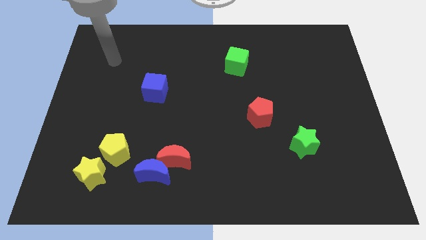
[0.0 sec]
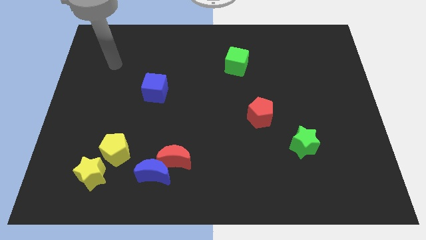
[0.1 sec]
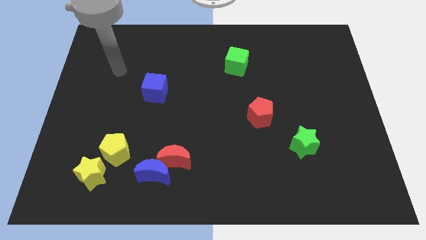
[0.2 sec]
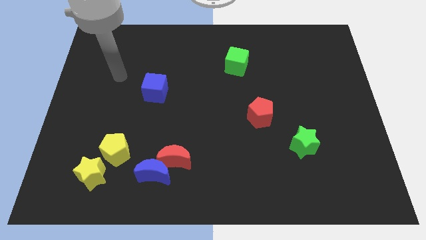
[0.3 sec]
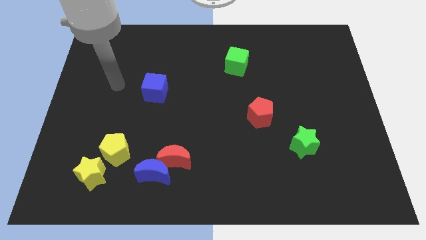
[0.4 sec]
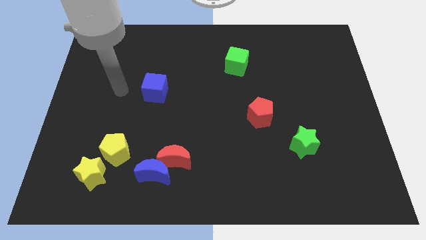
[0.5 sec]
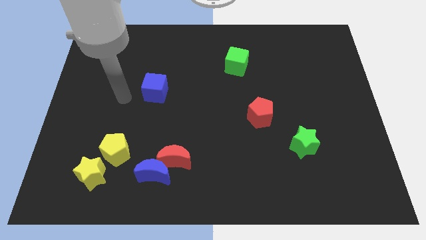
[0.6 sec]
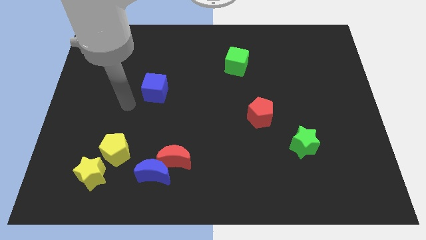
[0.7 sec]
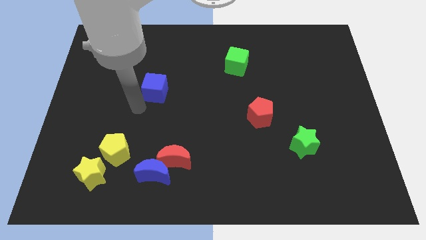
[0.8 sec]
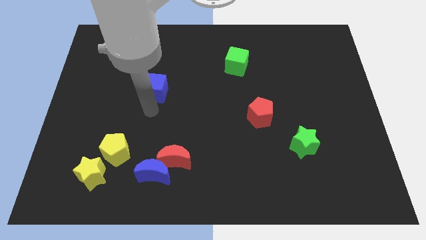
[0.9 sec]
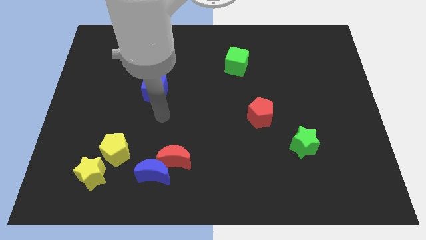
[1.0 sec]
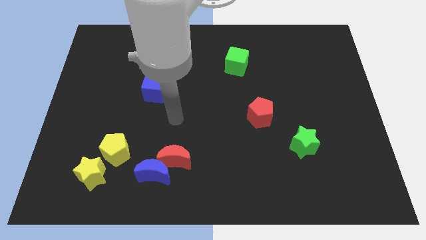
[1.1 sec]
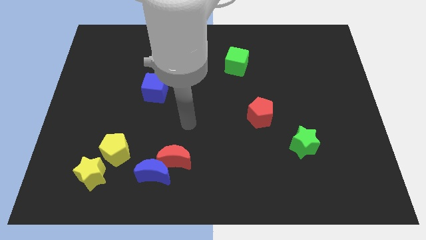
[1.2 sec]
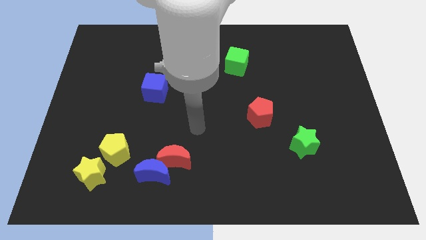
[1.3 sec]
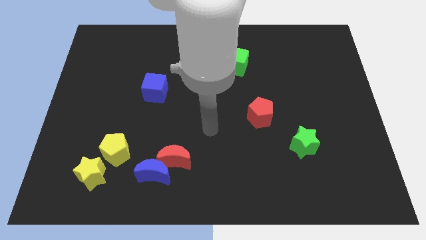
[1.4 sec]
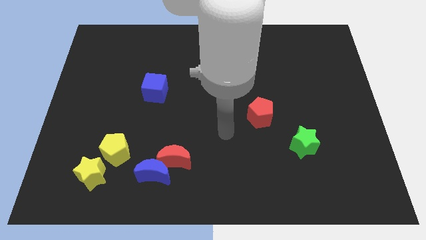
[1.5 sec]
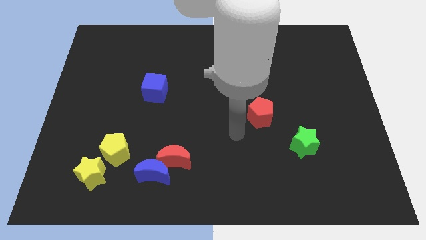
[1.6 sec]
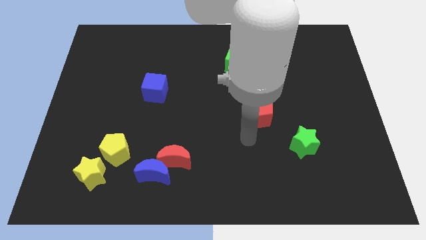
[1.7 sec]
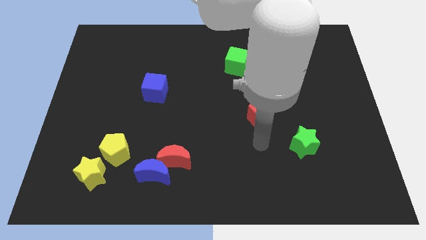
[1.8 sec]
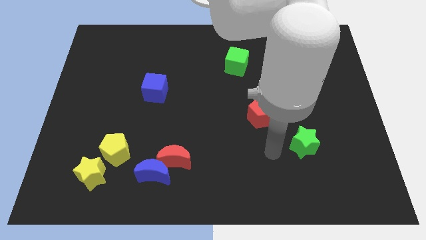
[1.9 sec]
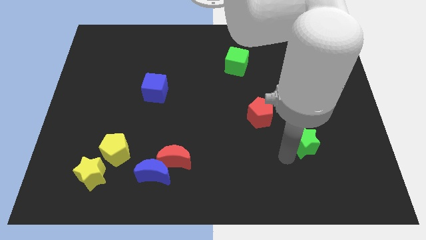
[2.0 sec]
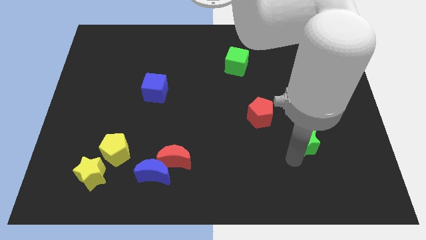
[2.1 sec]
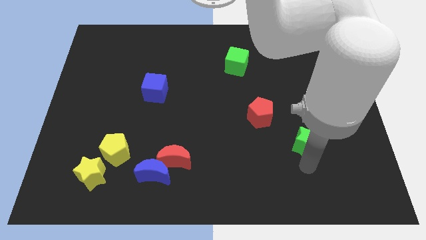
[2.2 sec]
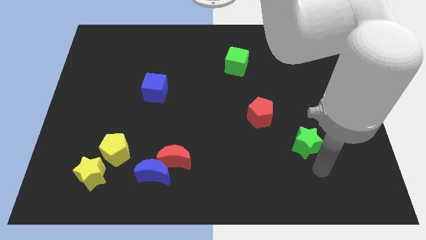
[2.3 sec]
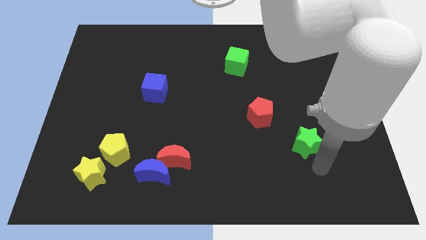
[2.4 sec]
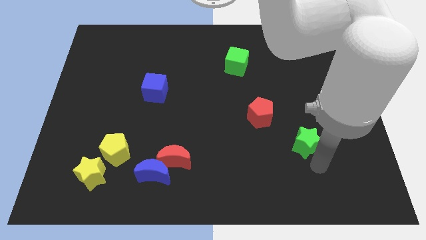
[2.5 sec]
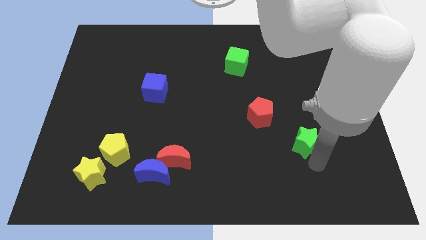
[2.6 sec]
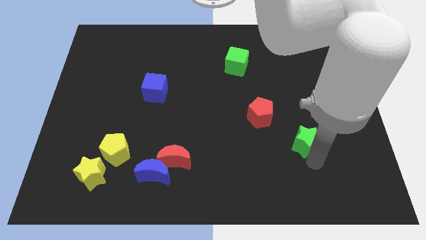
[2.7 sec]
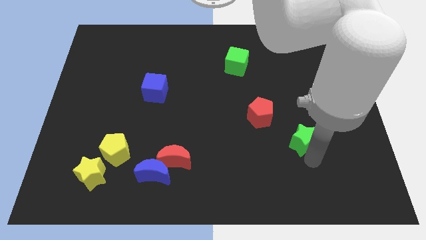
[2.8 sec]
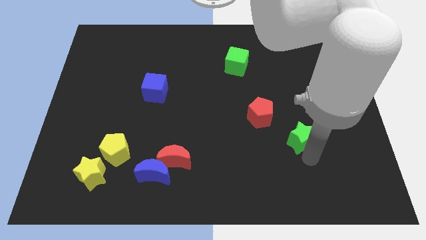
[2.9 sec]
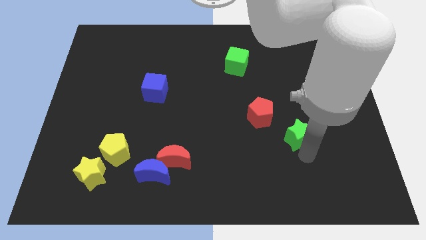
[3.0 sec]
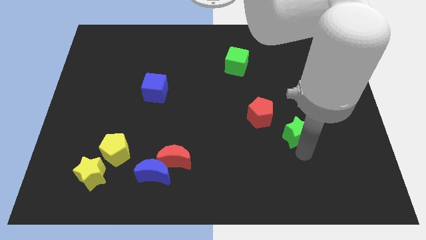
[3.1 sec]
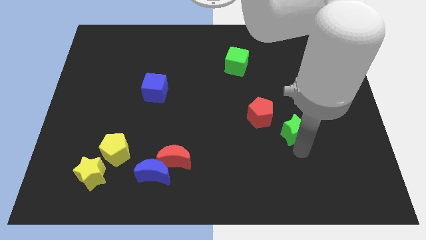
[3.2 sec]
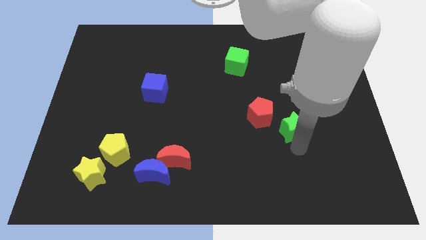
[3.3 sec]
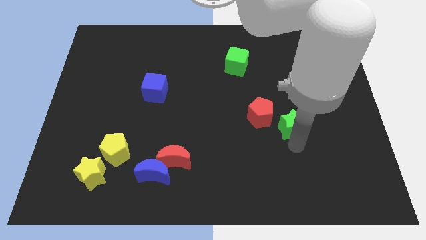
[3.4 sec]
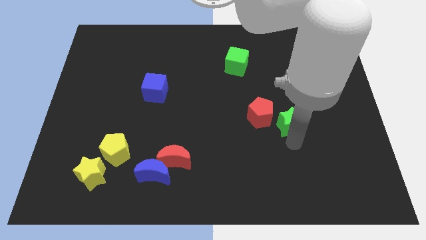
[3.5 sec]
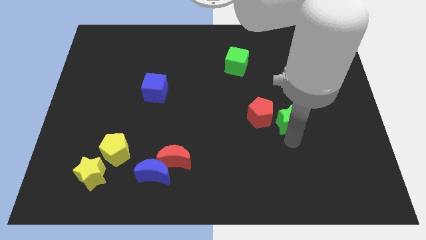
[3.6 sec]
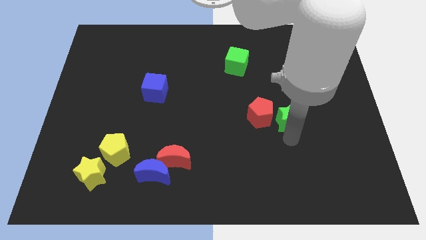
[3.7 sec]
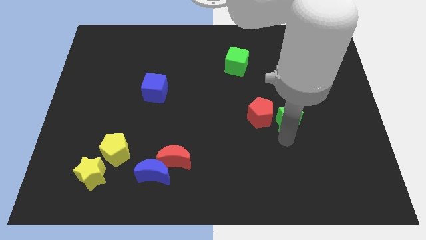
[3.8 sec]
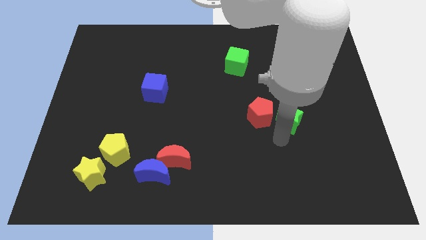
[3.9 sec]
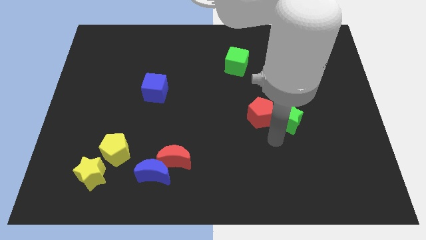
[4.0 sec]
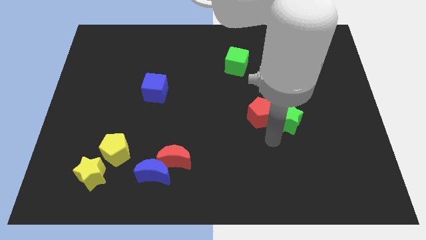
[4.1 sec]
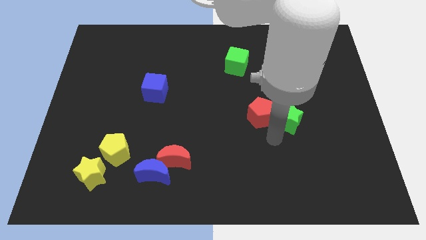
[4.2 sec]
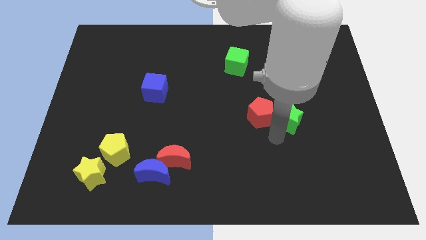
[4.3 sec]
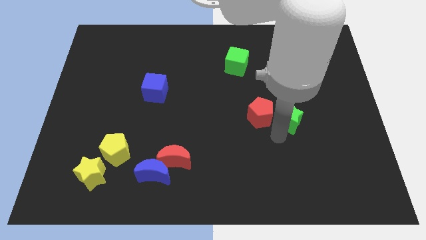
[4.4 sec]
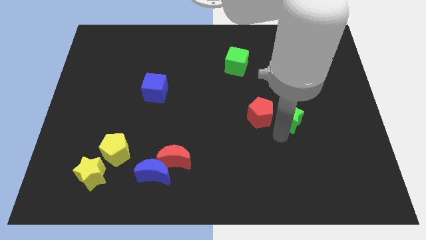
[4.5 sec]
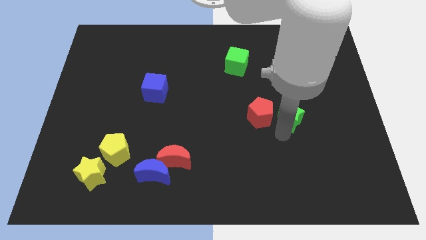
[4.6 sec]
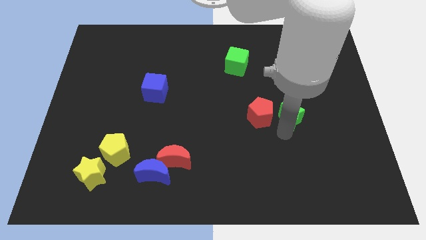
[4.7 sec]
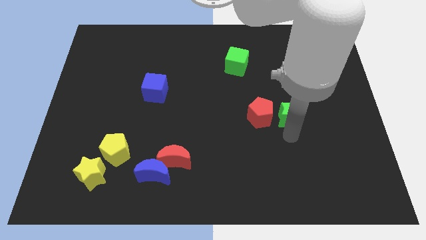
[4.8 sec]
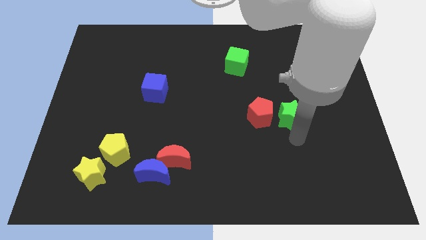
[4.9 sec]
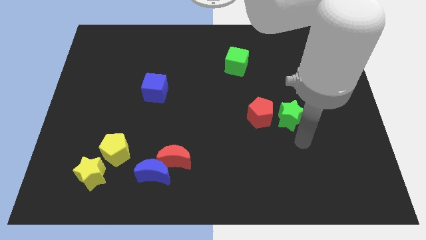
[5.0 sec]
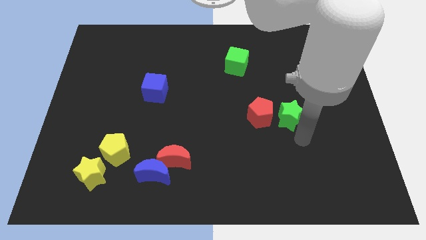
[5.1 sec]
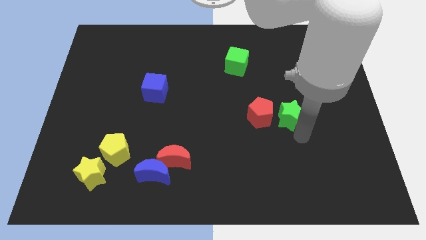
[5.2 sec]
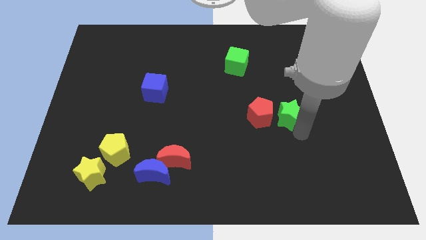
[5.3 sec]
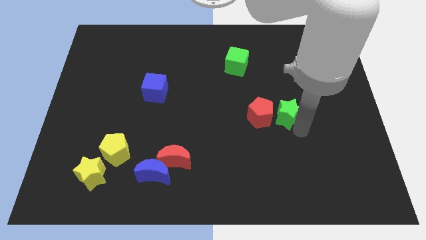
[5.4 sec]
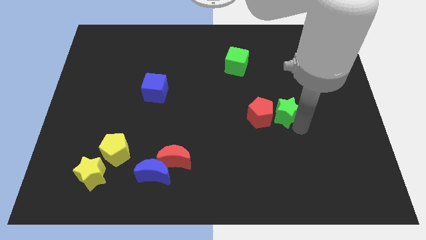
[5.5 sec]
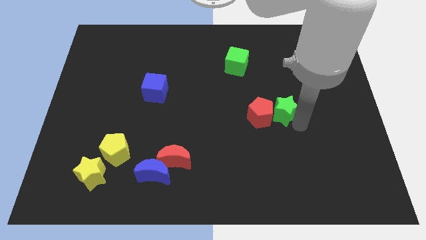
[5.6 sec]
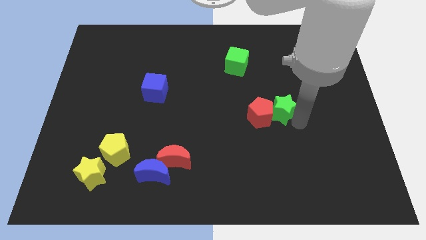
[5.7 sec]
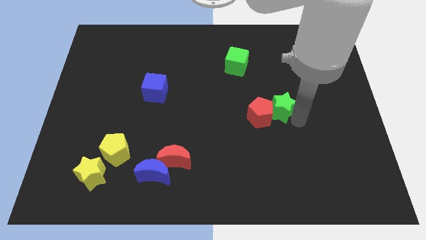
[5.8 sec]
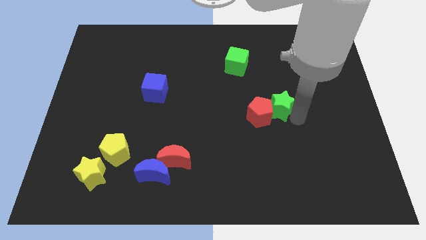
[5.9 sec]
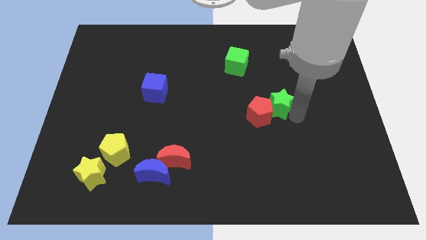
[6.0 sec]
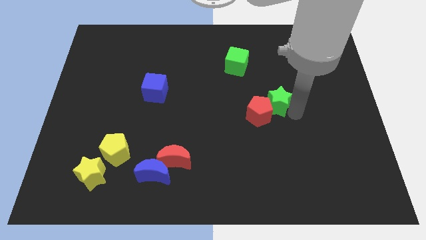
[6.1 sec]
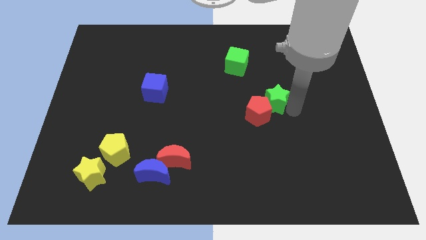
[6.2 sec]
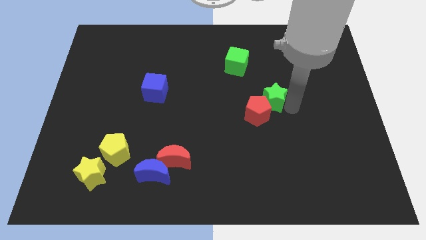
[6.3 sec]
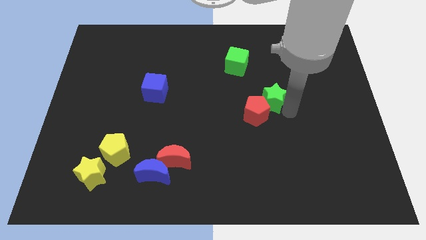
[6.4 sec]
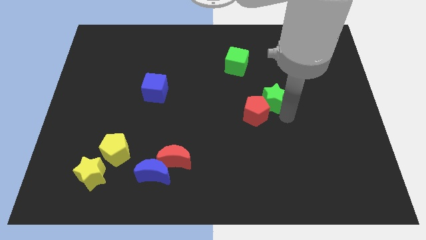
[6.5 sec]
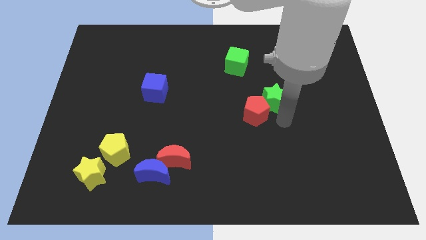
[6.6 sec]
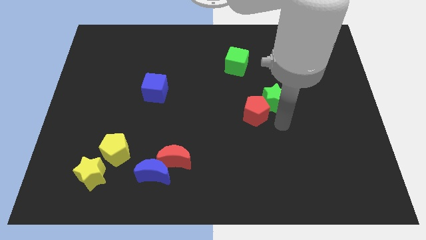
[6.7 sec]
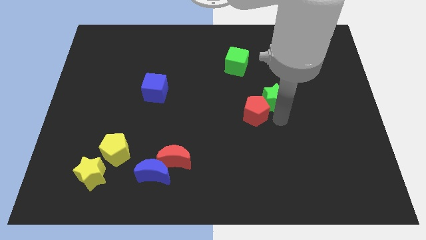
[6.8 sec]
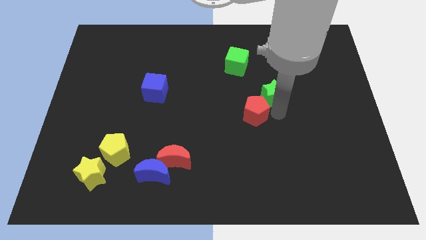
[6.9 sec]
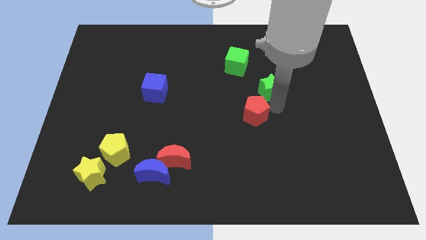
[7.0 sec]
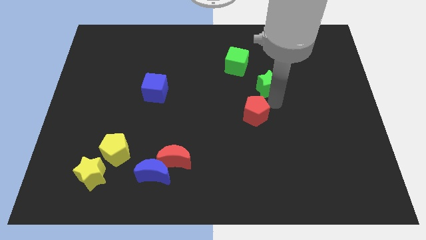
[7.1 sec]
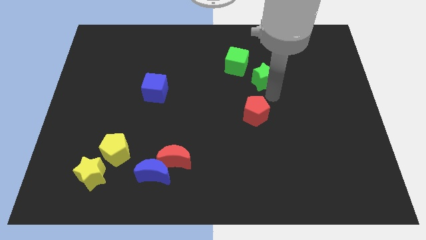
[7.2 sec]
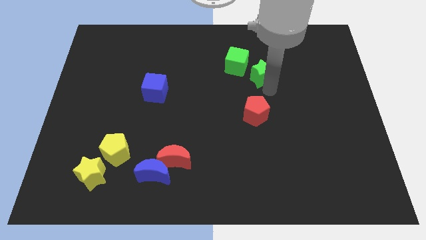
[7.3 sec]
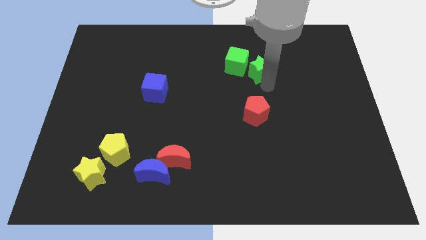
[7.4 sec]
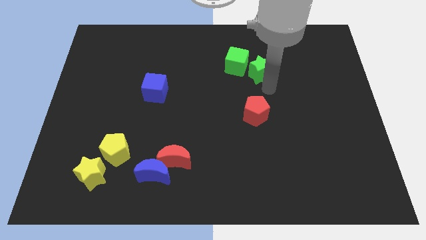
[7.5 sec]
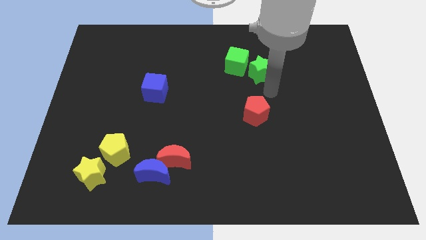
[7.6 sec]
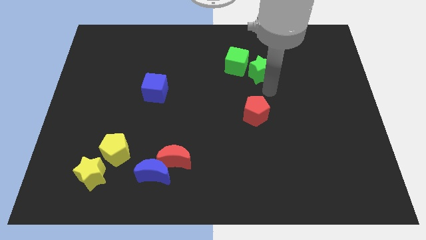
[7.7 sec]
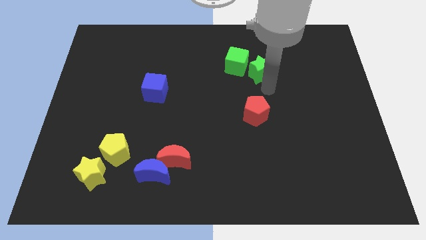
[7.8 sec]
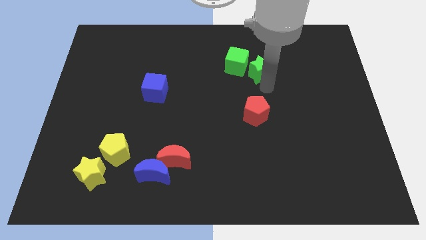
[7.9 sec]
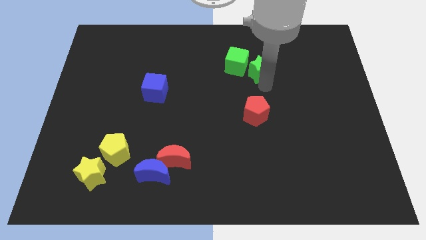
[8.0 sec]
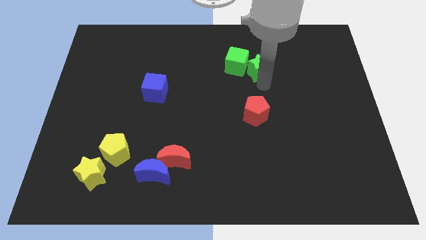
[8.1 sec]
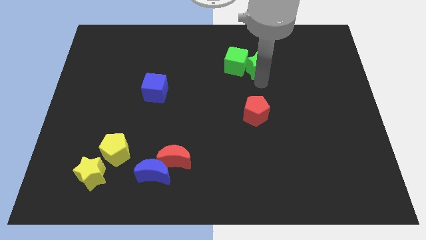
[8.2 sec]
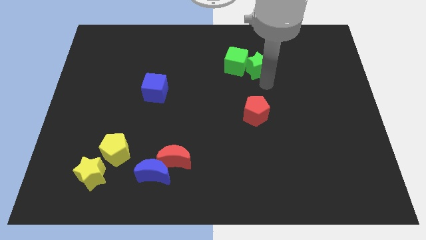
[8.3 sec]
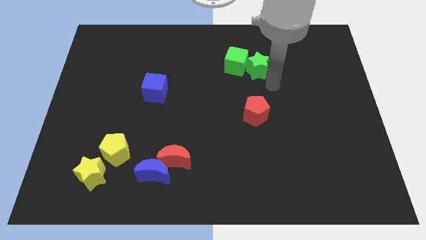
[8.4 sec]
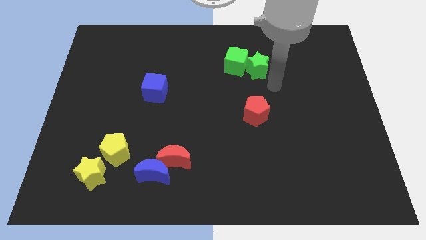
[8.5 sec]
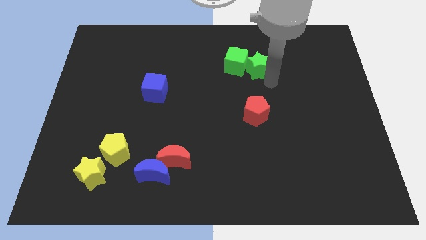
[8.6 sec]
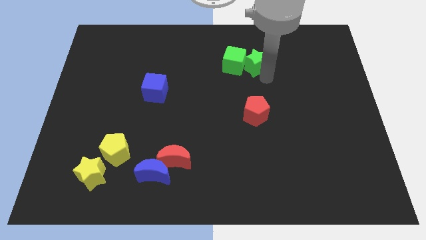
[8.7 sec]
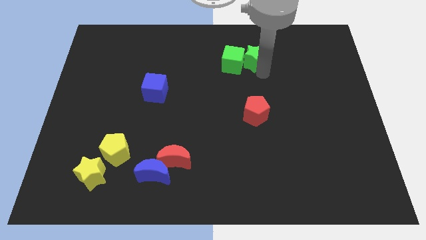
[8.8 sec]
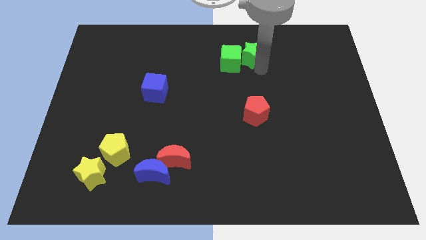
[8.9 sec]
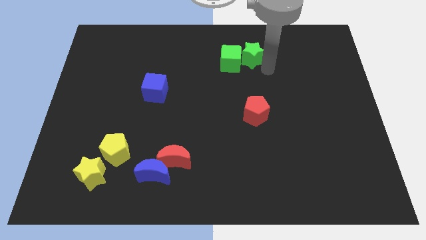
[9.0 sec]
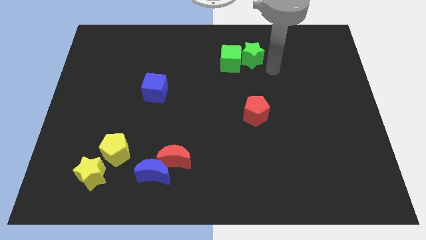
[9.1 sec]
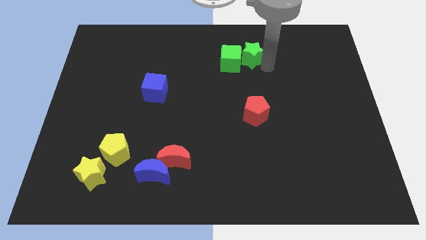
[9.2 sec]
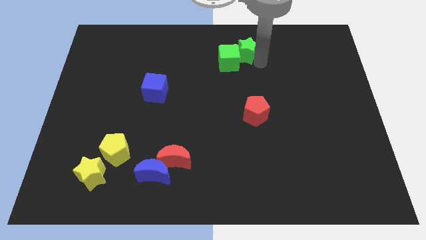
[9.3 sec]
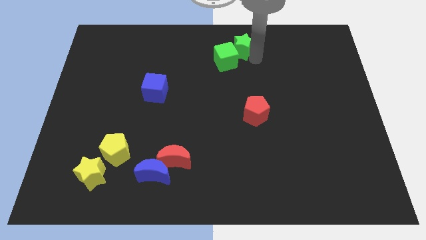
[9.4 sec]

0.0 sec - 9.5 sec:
put the green star to the towards your base
